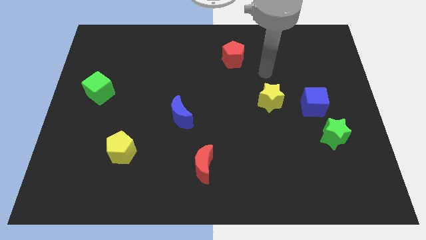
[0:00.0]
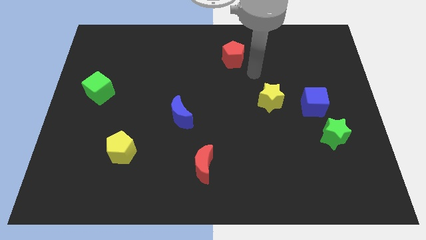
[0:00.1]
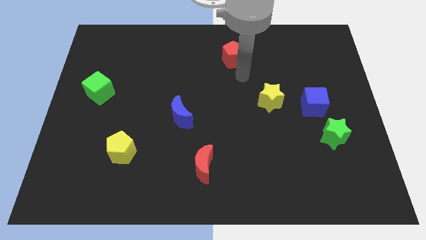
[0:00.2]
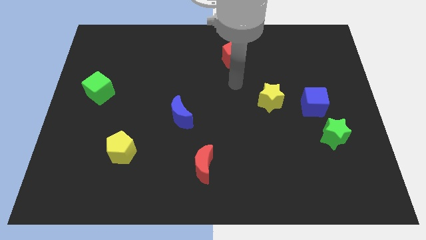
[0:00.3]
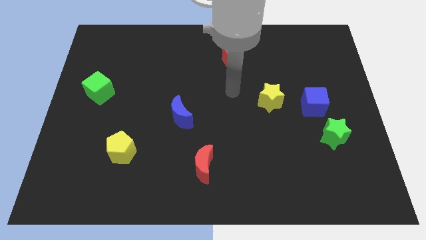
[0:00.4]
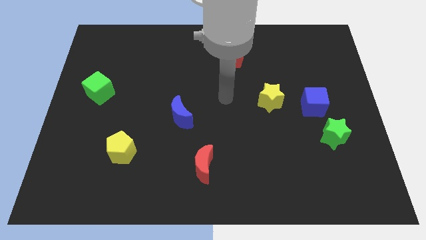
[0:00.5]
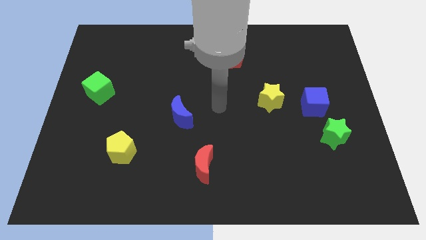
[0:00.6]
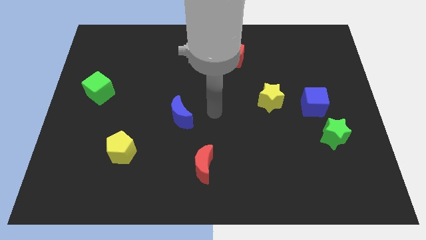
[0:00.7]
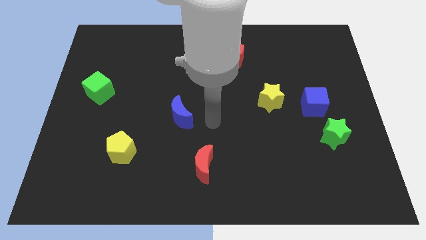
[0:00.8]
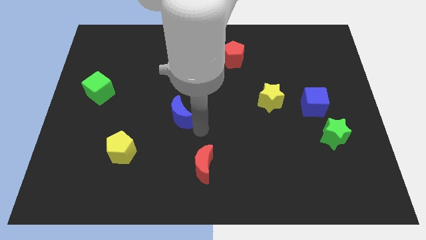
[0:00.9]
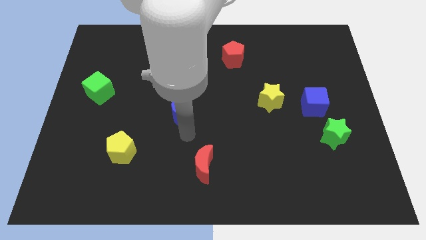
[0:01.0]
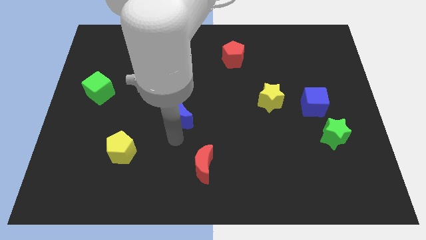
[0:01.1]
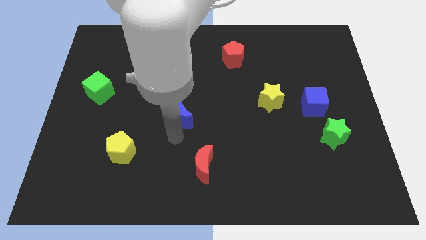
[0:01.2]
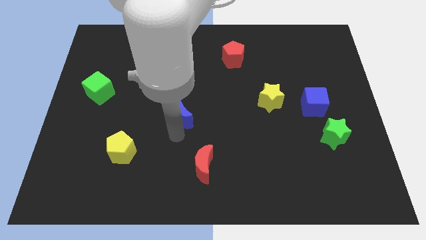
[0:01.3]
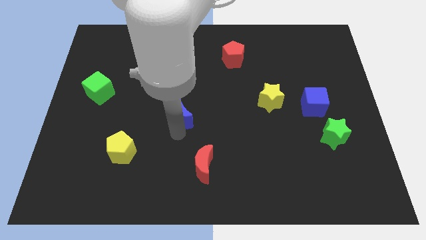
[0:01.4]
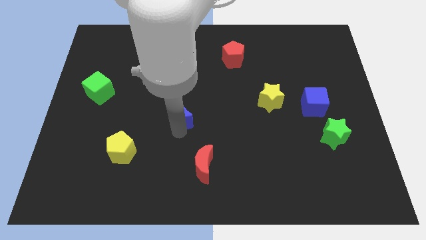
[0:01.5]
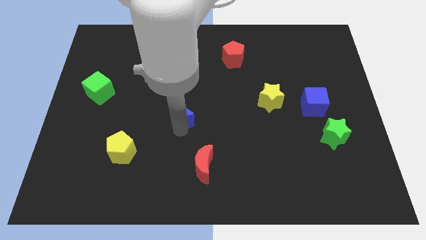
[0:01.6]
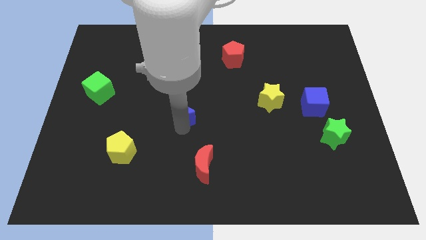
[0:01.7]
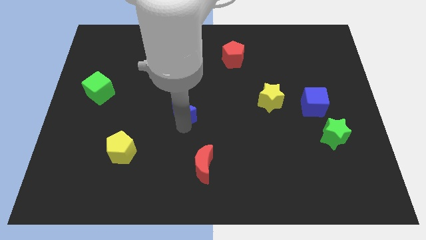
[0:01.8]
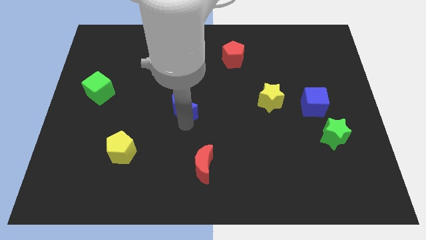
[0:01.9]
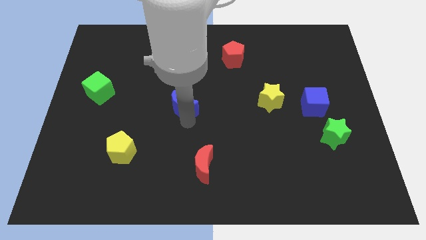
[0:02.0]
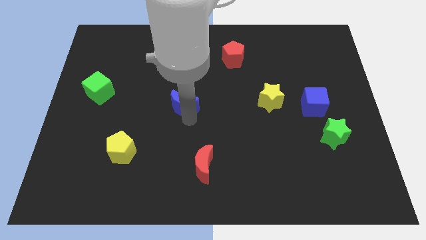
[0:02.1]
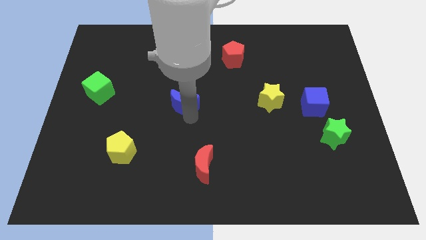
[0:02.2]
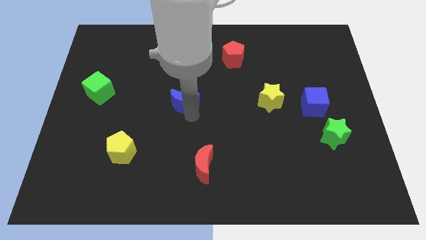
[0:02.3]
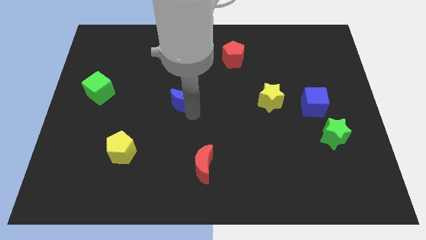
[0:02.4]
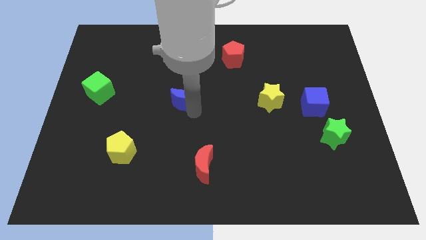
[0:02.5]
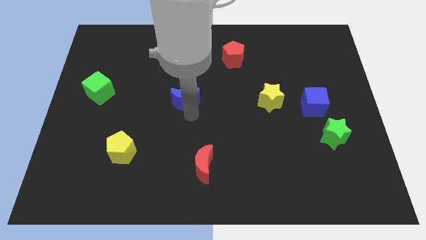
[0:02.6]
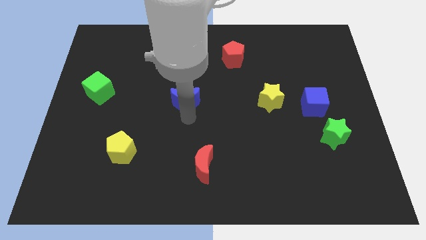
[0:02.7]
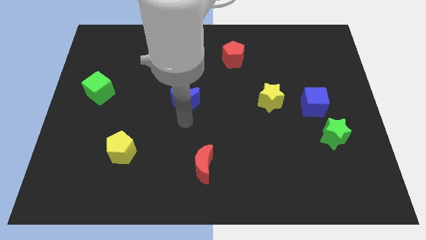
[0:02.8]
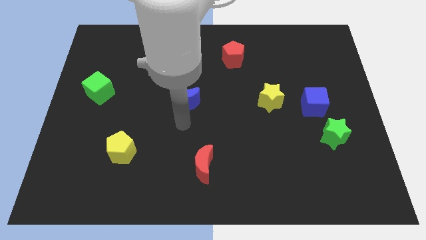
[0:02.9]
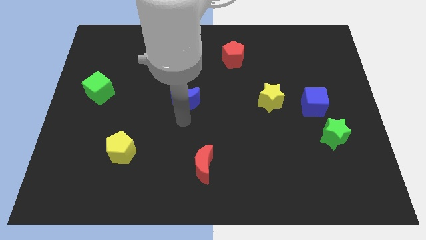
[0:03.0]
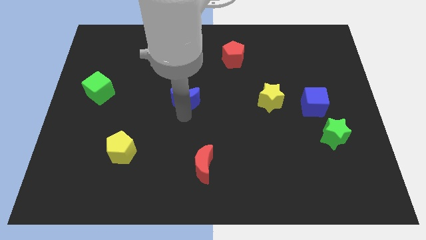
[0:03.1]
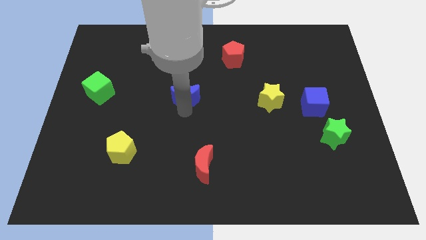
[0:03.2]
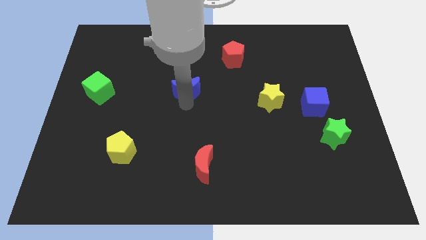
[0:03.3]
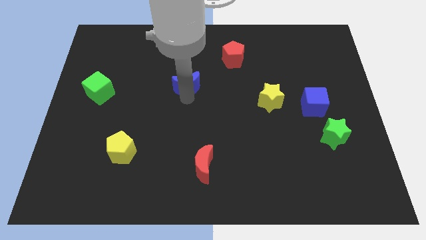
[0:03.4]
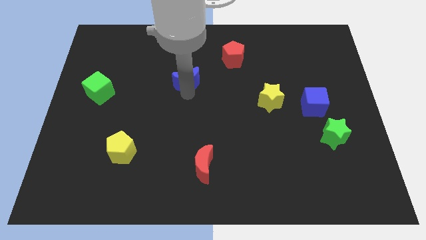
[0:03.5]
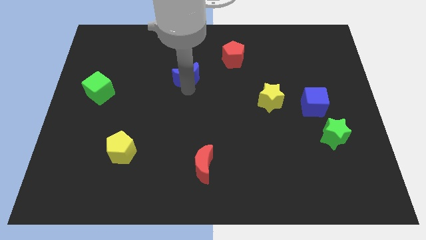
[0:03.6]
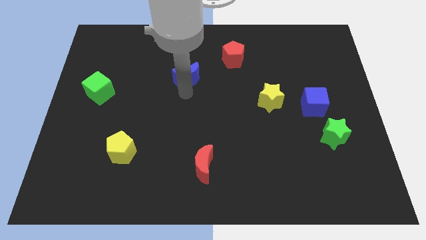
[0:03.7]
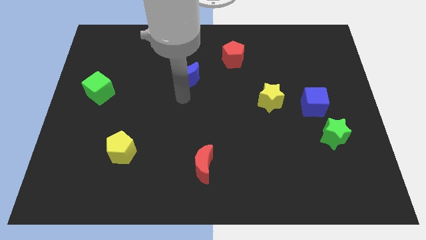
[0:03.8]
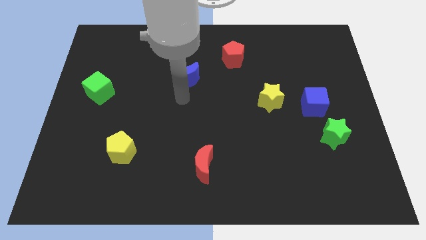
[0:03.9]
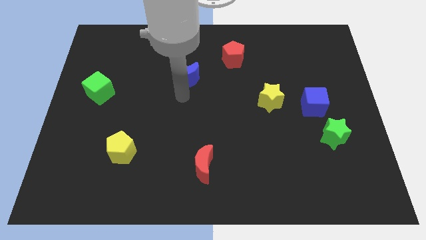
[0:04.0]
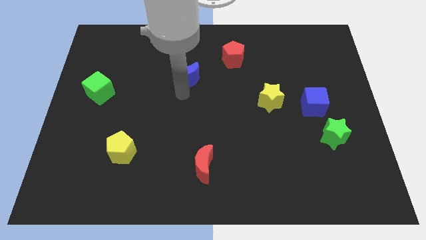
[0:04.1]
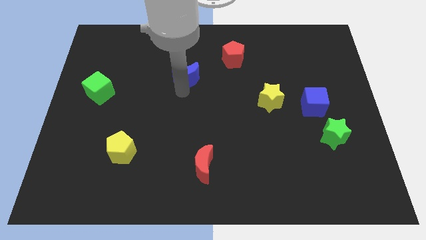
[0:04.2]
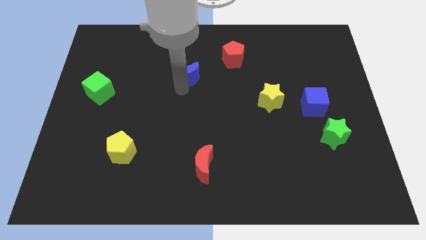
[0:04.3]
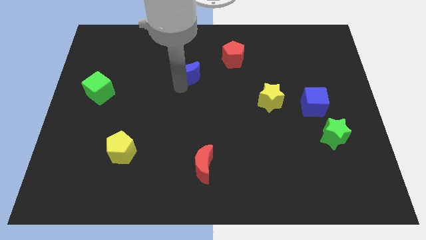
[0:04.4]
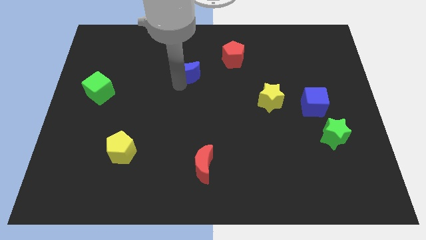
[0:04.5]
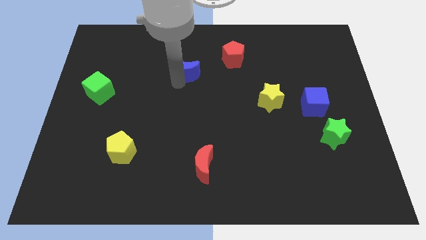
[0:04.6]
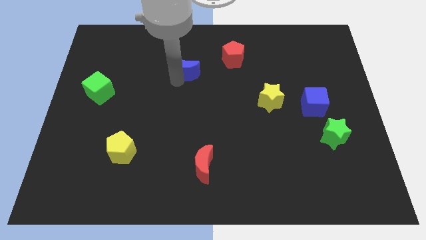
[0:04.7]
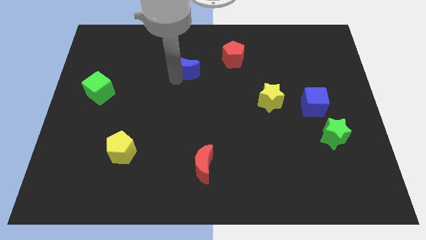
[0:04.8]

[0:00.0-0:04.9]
move the blue moon to the left of the red pentagon

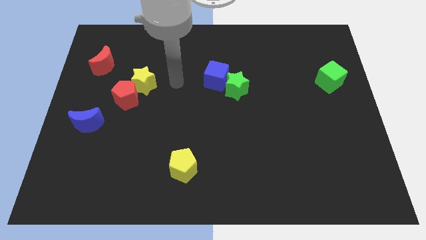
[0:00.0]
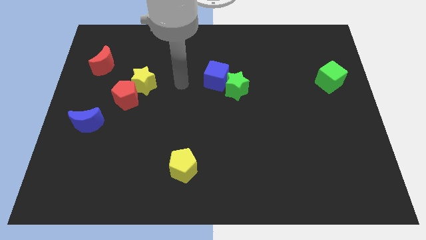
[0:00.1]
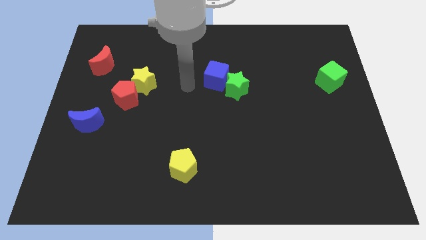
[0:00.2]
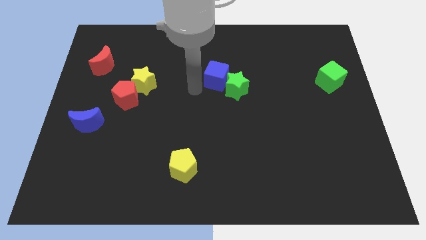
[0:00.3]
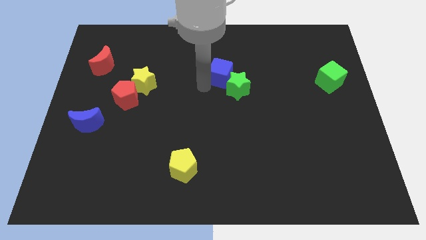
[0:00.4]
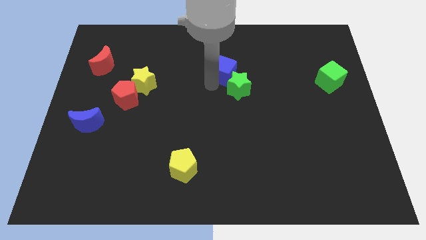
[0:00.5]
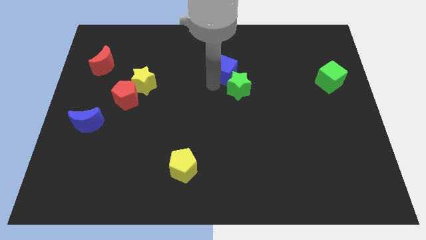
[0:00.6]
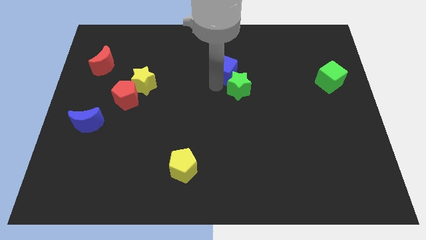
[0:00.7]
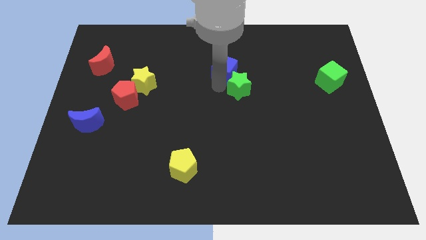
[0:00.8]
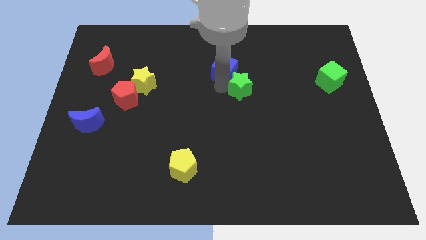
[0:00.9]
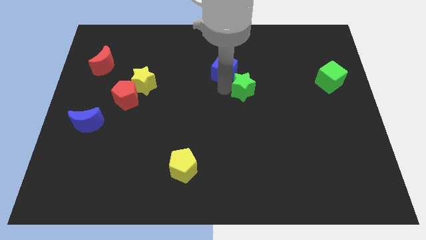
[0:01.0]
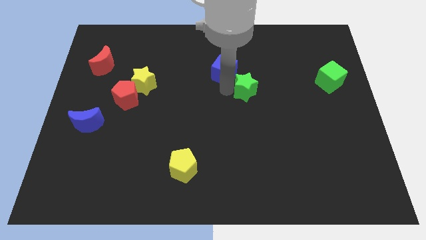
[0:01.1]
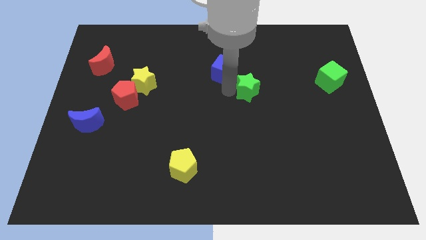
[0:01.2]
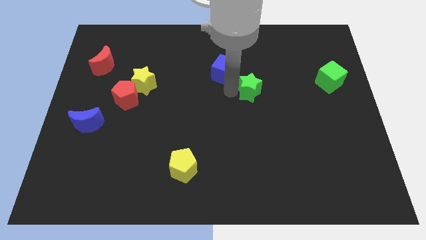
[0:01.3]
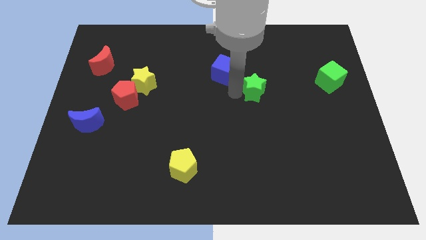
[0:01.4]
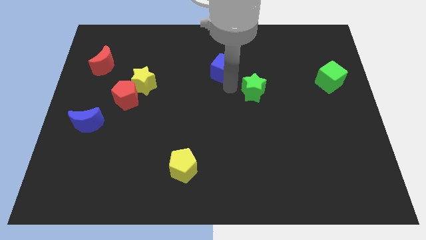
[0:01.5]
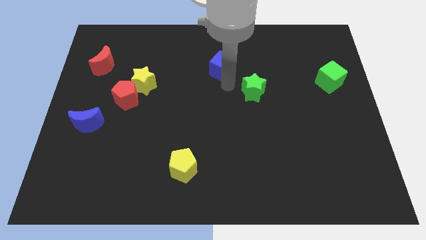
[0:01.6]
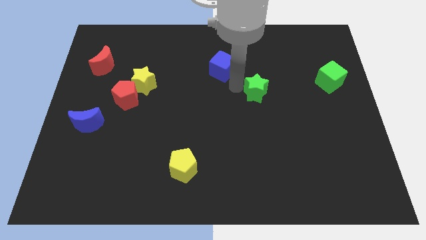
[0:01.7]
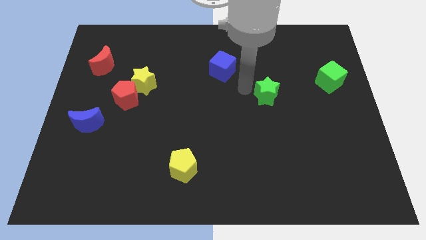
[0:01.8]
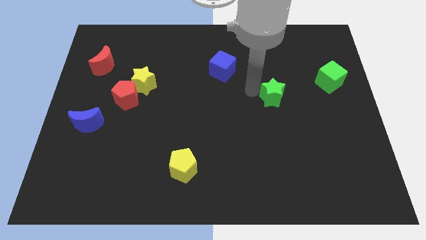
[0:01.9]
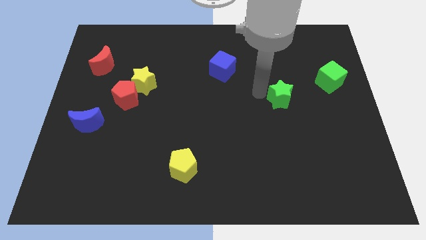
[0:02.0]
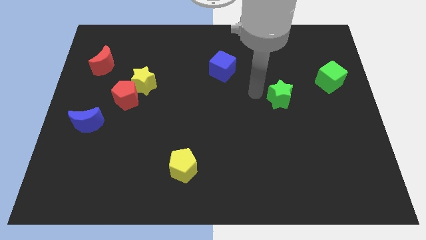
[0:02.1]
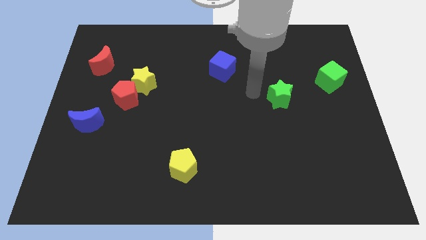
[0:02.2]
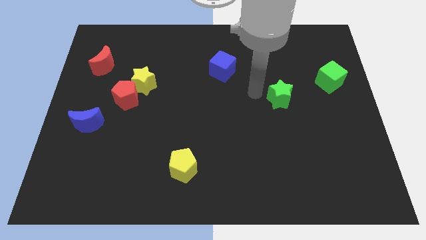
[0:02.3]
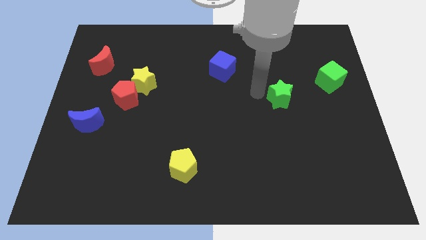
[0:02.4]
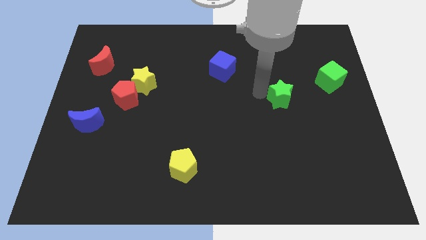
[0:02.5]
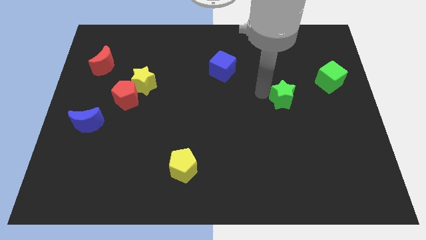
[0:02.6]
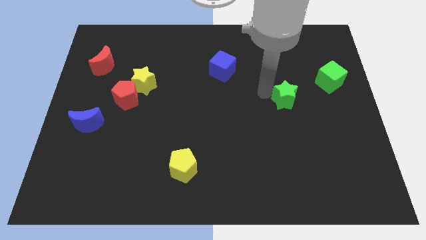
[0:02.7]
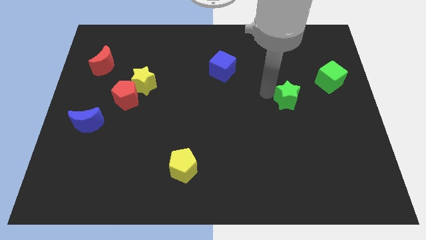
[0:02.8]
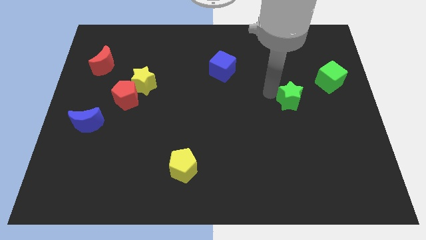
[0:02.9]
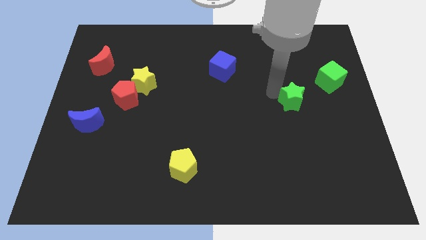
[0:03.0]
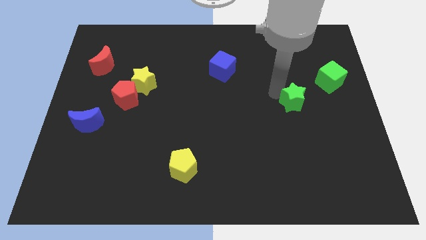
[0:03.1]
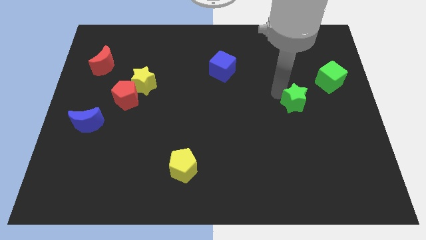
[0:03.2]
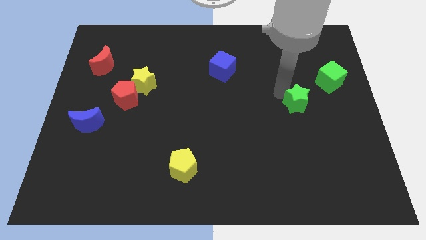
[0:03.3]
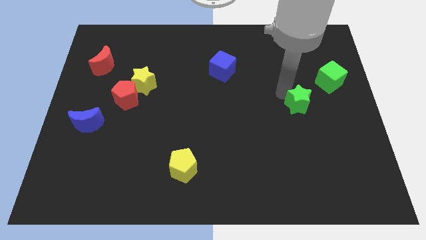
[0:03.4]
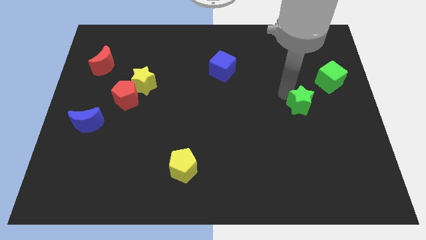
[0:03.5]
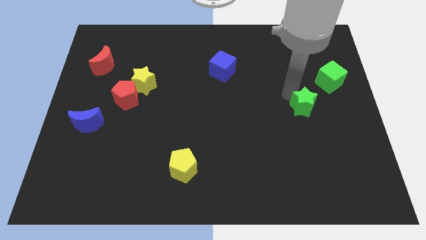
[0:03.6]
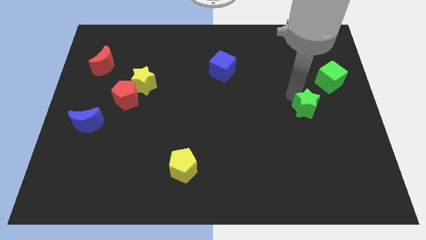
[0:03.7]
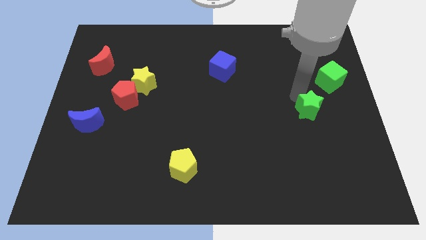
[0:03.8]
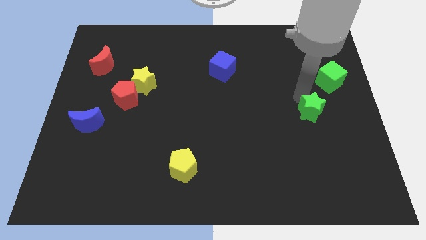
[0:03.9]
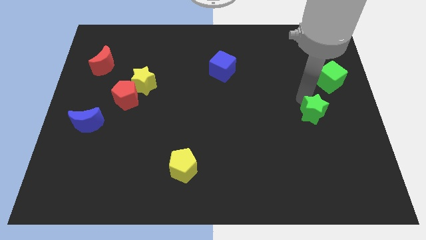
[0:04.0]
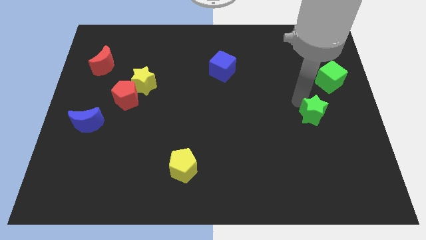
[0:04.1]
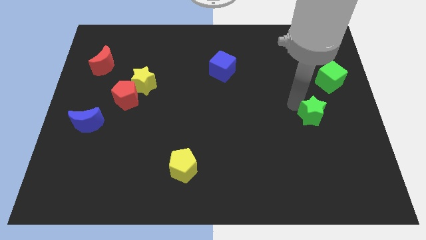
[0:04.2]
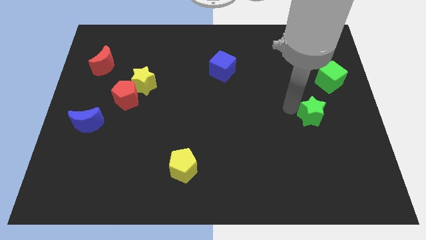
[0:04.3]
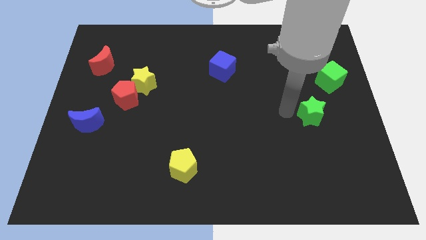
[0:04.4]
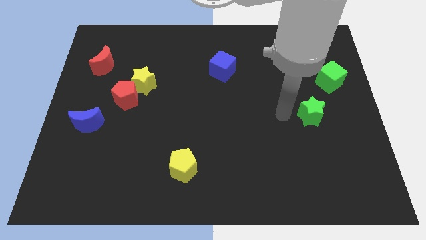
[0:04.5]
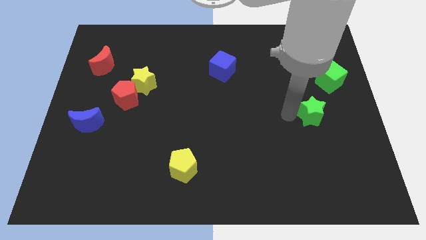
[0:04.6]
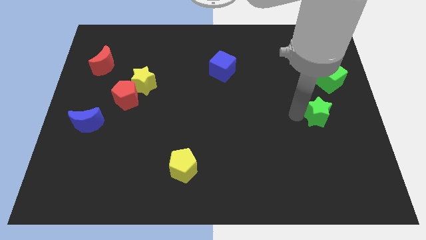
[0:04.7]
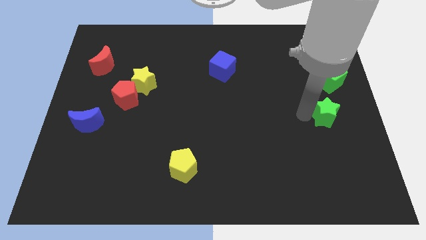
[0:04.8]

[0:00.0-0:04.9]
push the green star to the bottom of the green cube
